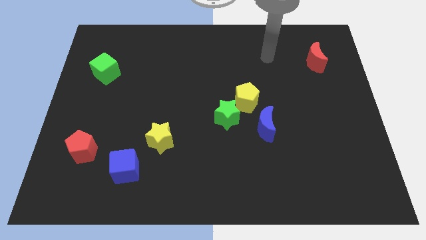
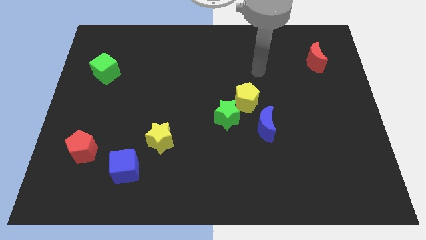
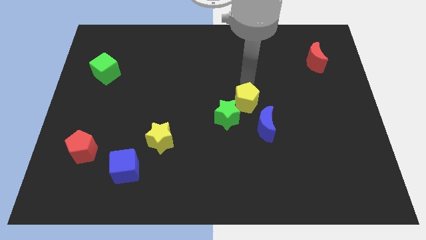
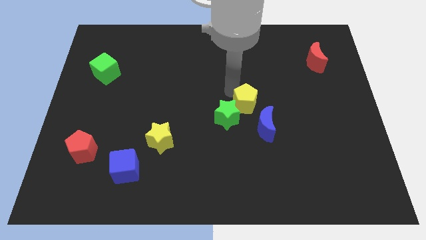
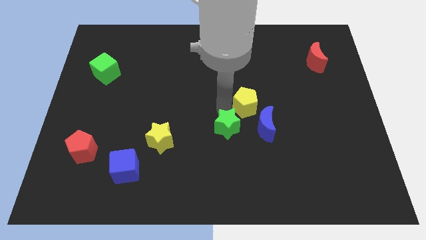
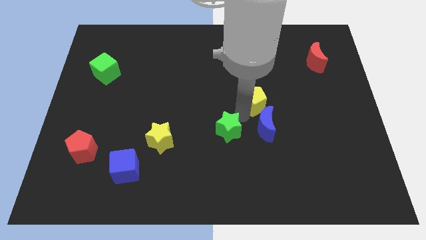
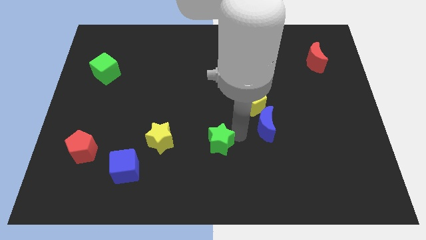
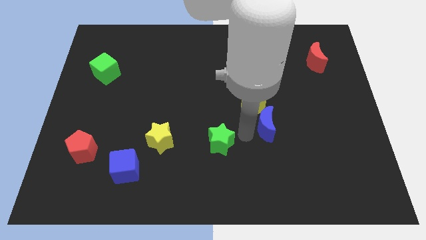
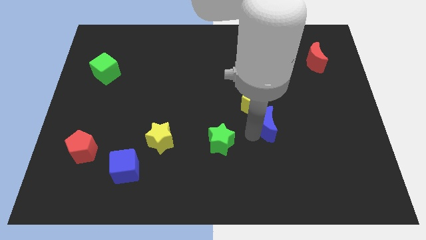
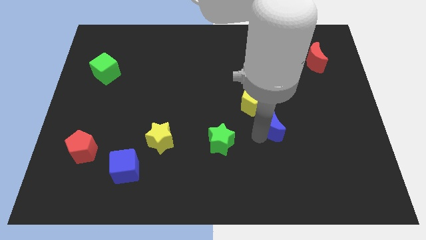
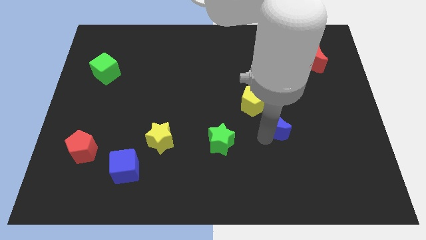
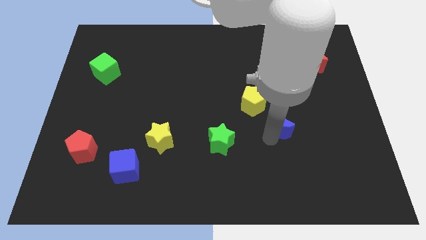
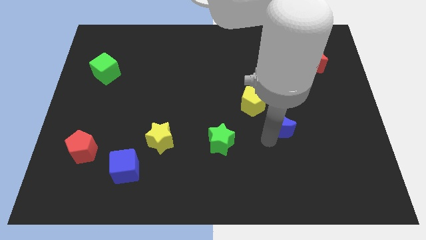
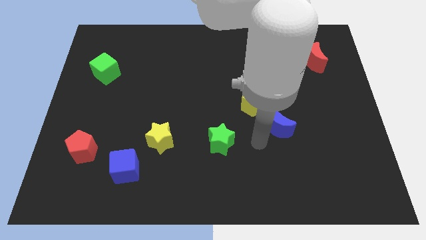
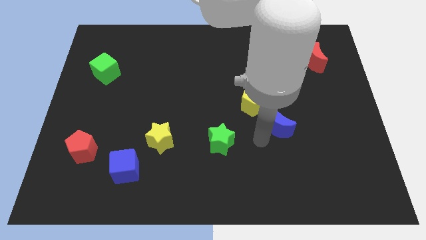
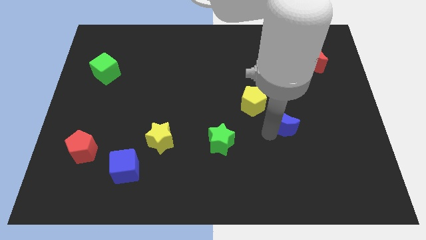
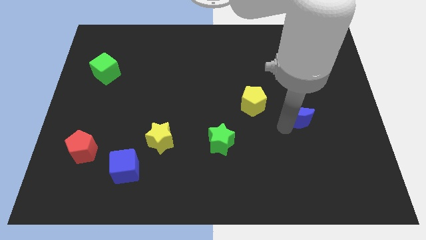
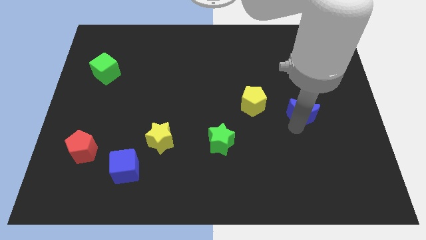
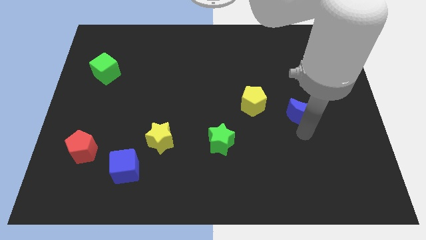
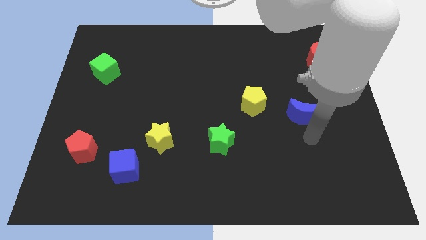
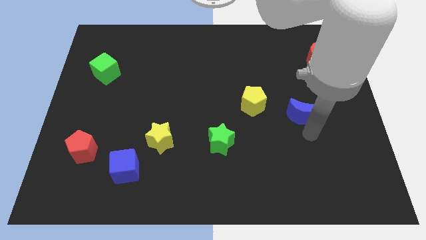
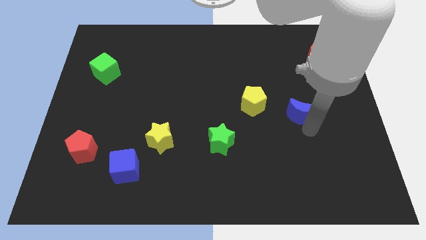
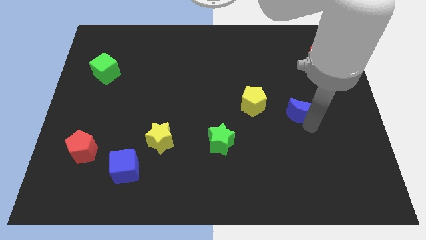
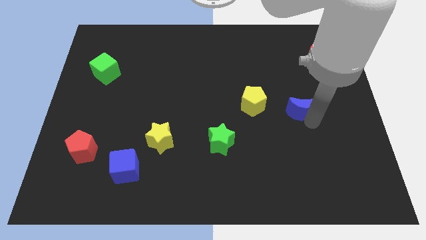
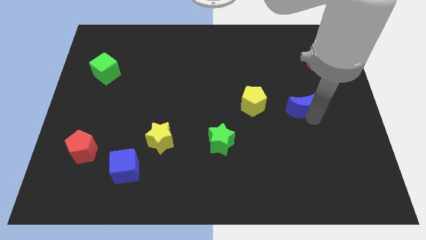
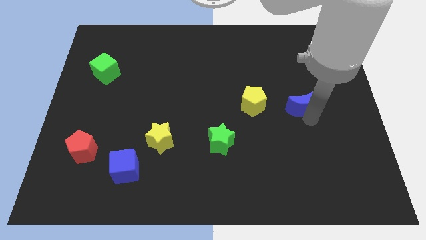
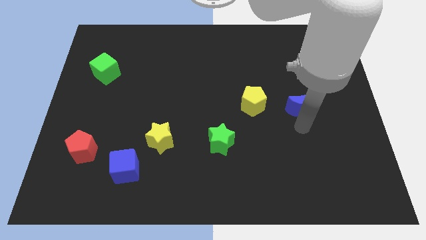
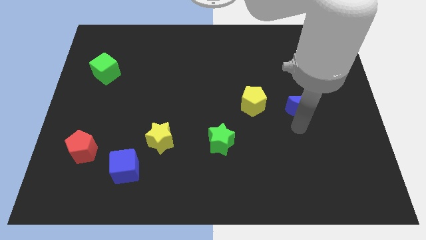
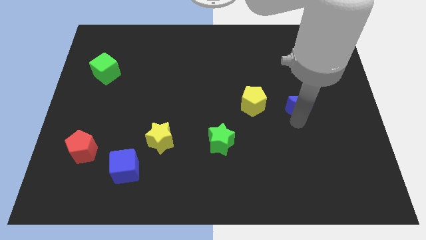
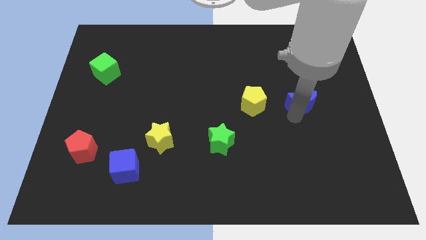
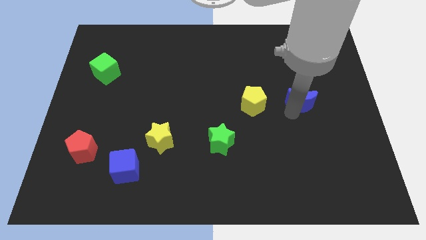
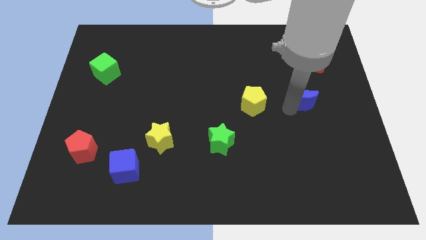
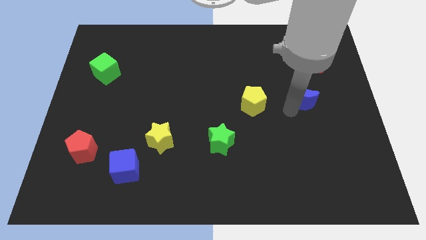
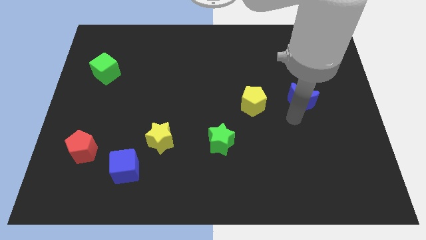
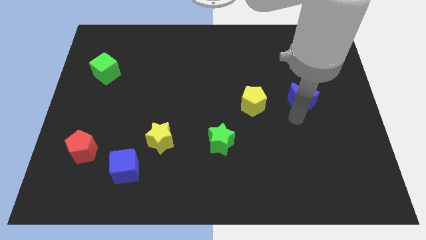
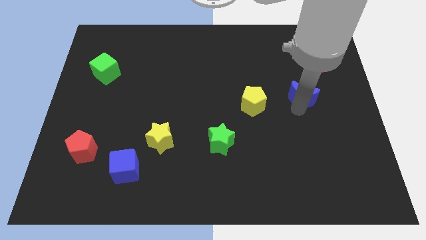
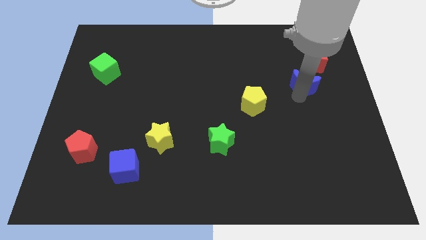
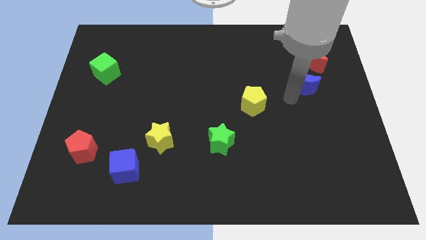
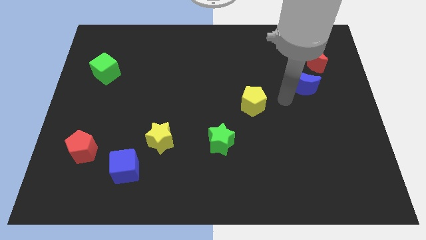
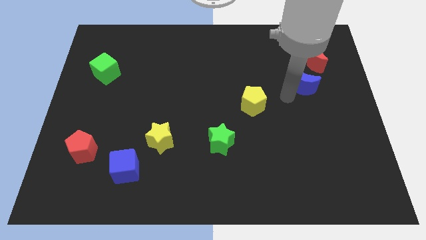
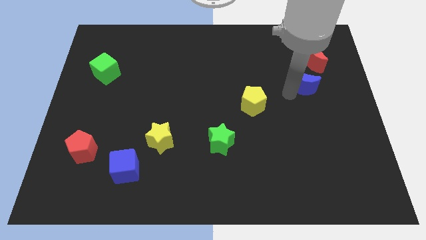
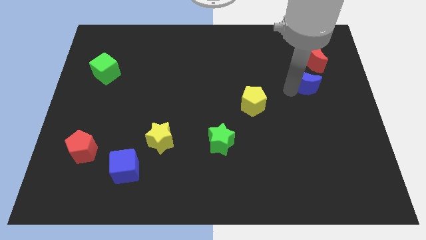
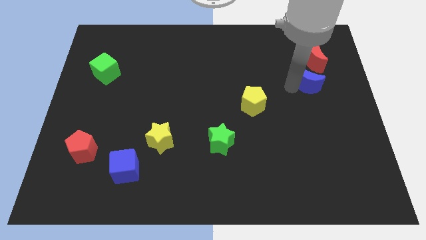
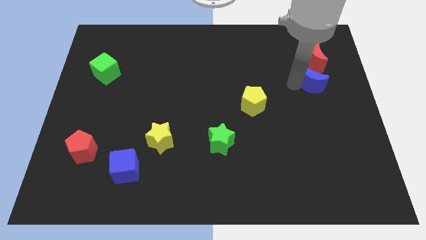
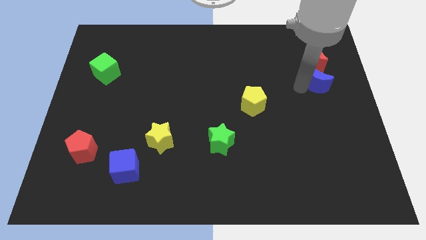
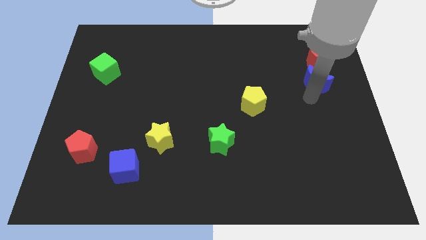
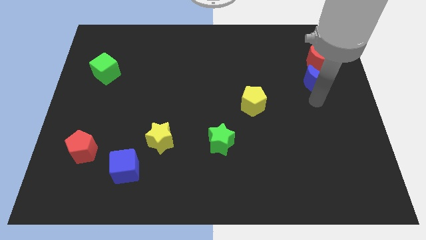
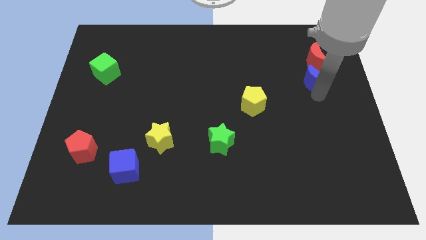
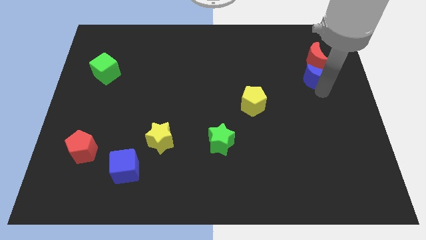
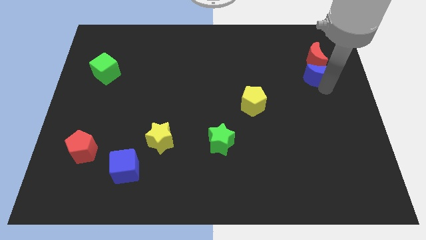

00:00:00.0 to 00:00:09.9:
put the blue moon next to the red moon

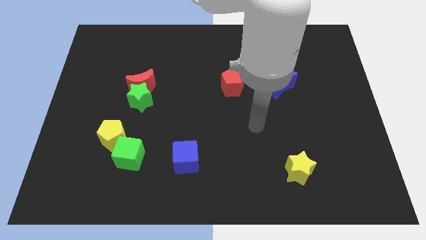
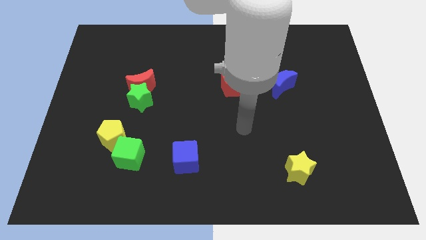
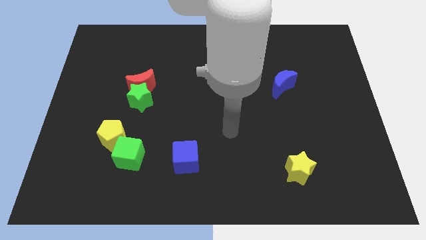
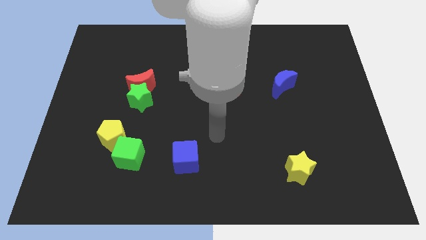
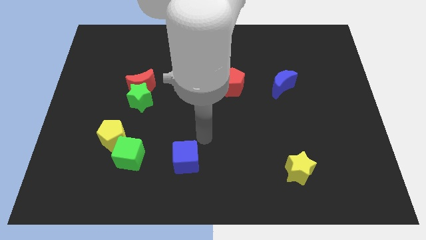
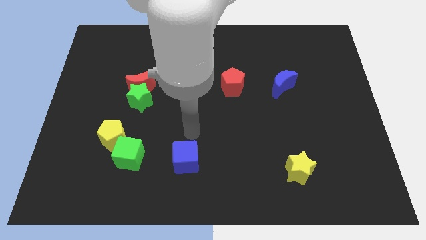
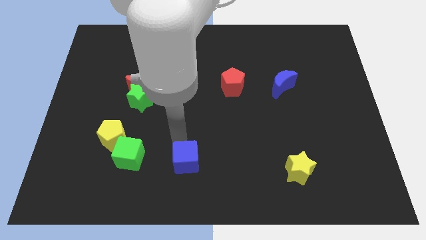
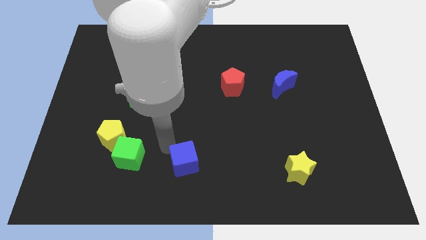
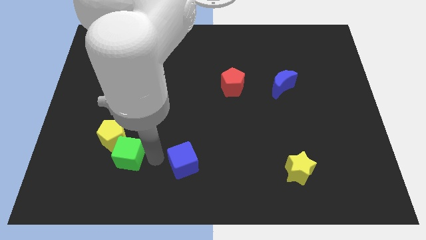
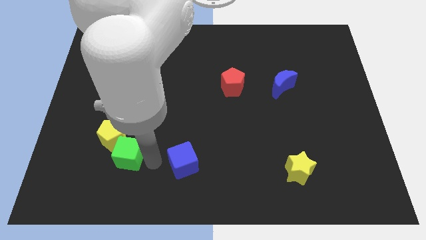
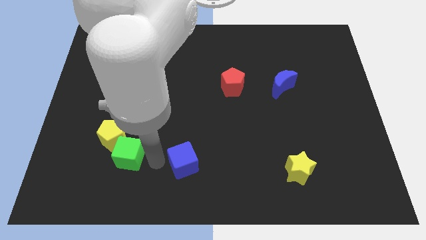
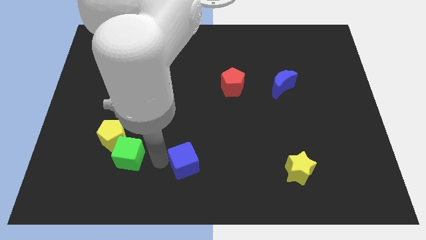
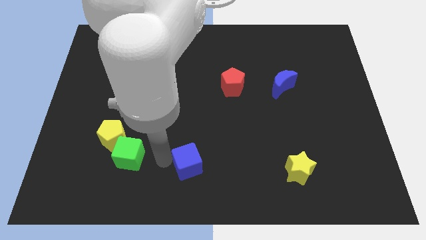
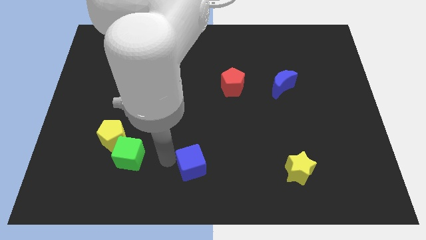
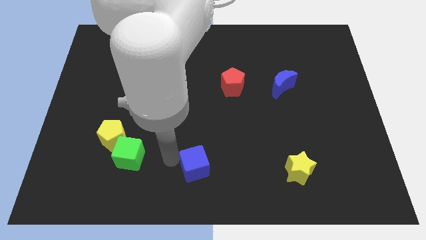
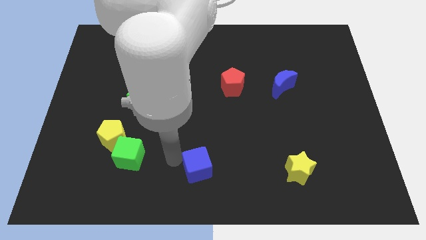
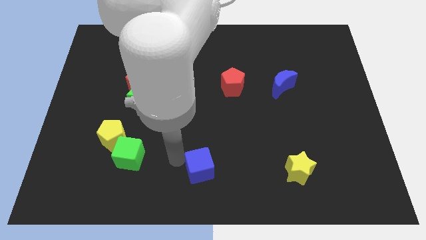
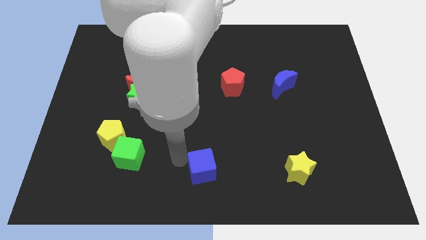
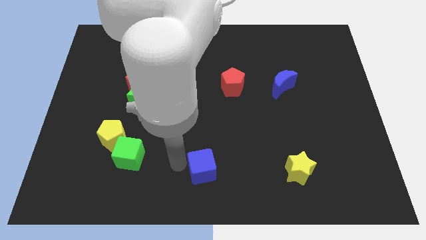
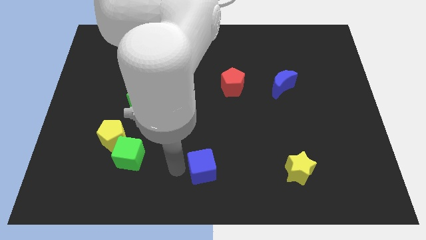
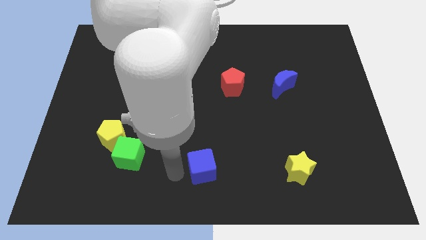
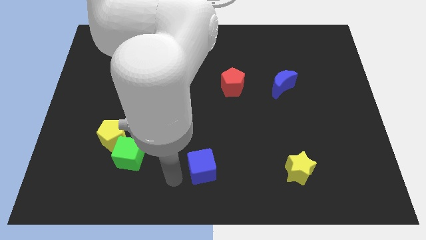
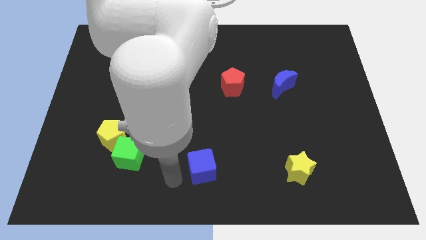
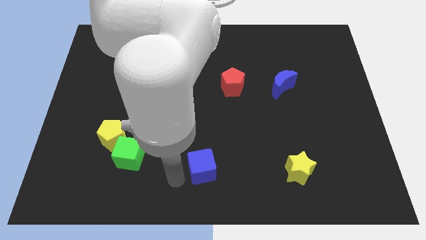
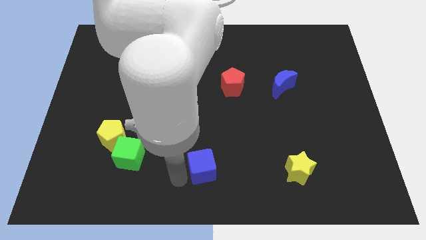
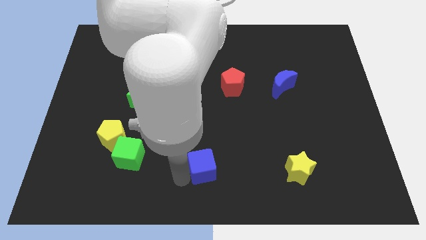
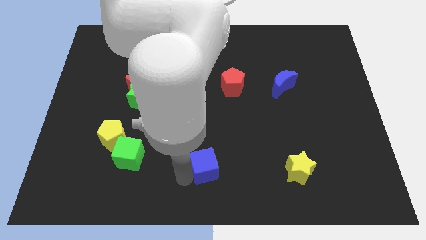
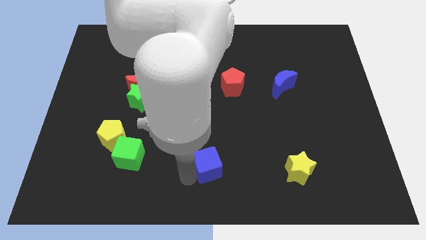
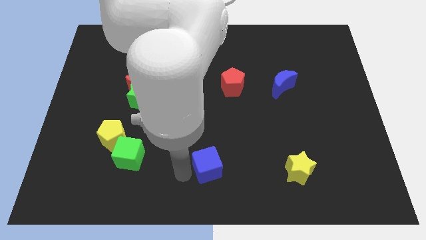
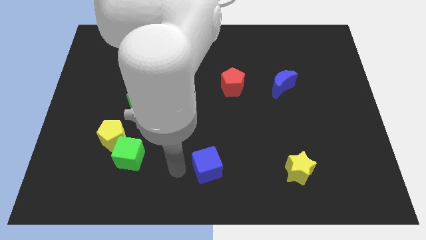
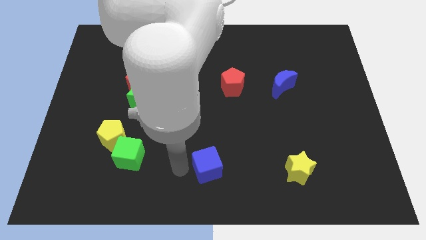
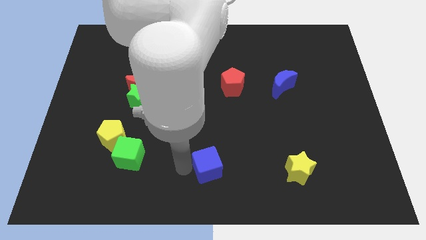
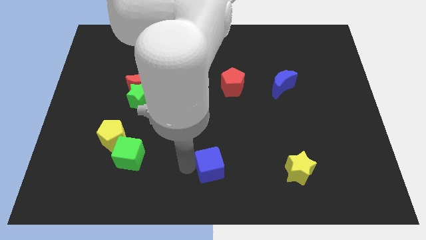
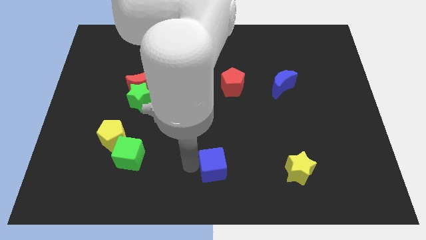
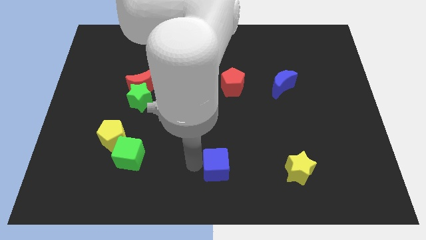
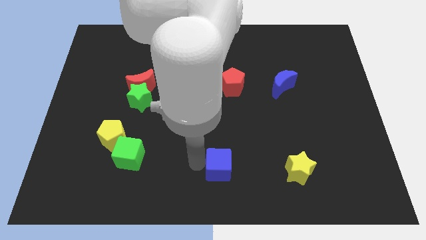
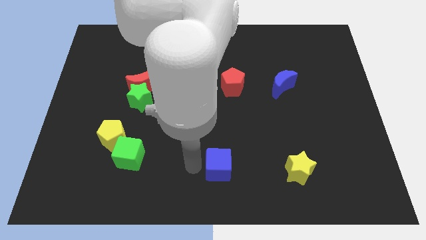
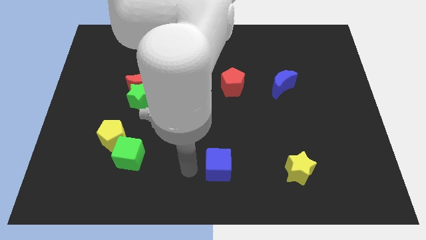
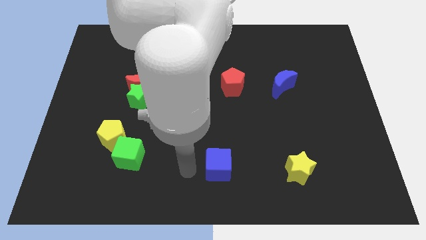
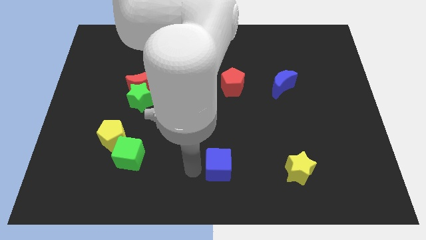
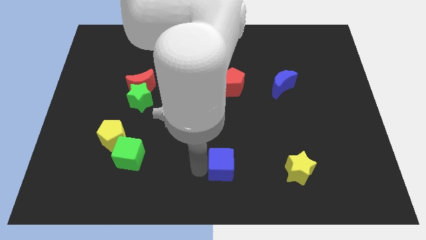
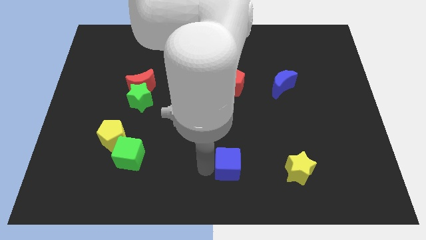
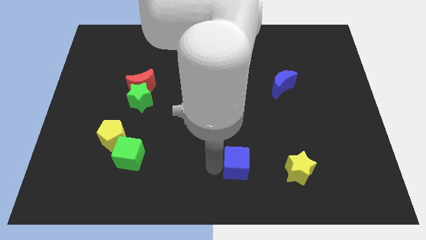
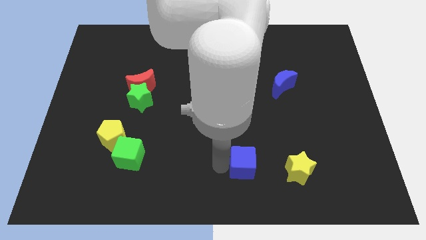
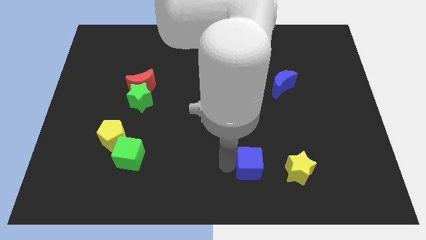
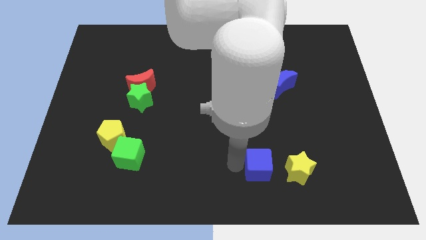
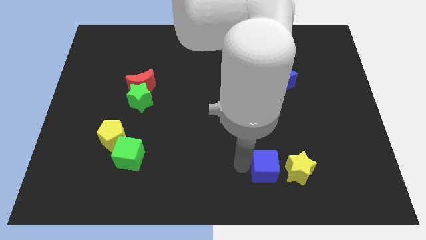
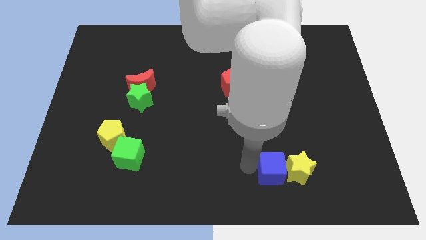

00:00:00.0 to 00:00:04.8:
put the blue cube to the yellow star
